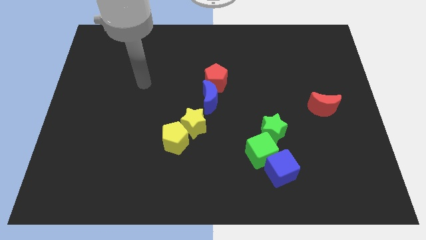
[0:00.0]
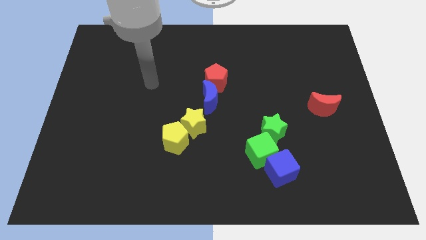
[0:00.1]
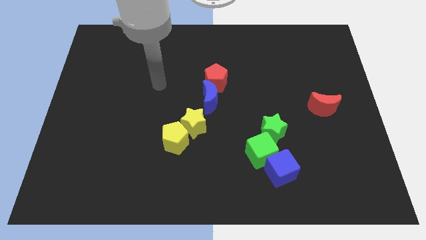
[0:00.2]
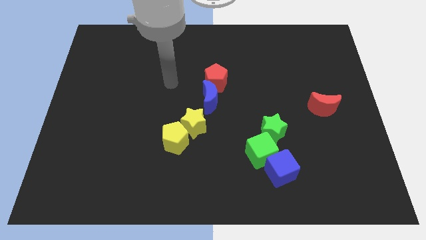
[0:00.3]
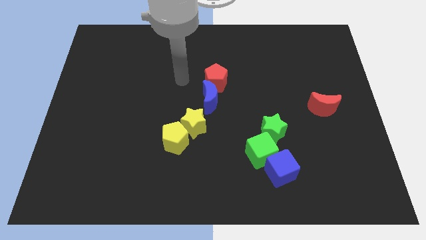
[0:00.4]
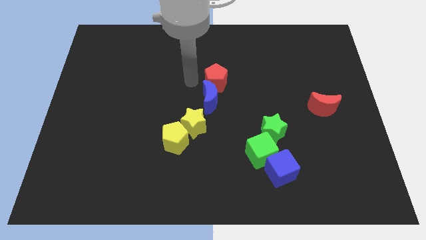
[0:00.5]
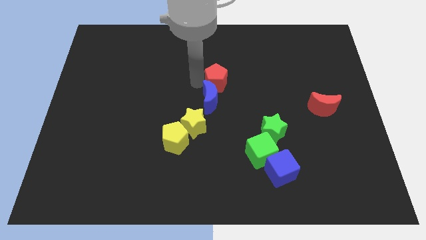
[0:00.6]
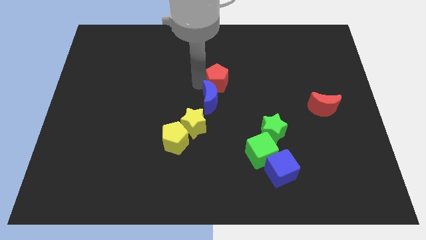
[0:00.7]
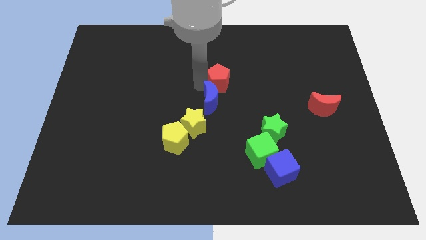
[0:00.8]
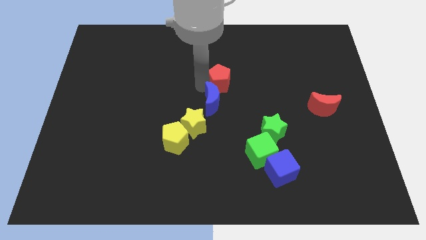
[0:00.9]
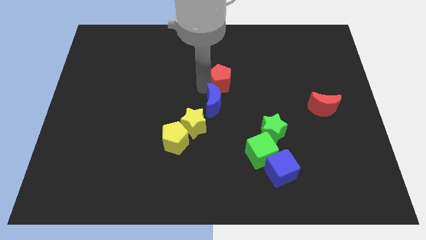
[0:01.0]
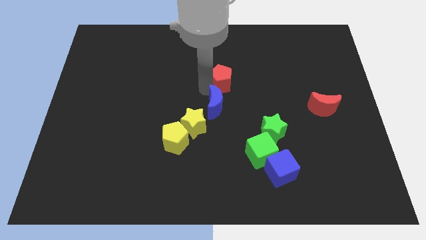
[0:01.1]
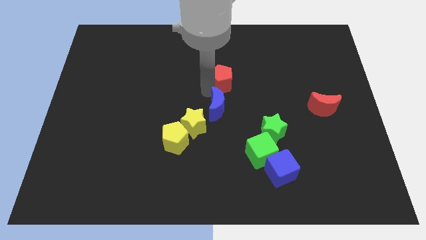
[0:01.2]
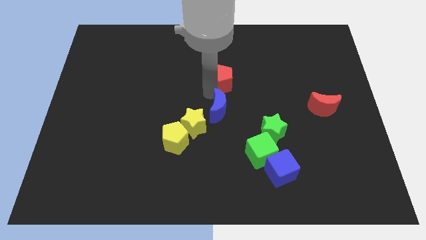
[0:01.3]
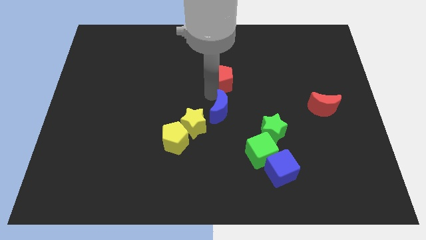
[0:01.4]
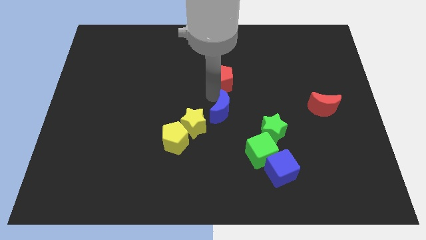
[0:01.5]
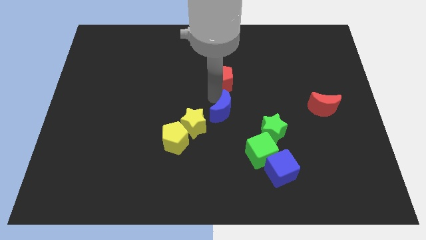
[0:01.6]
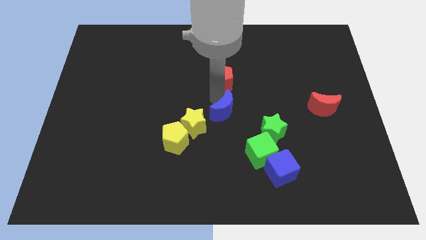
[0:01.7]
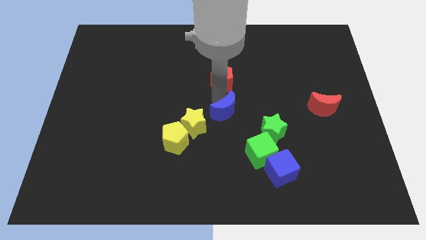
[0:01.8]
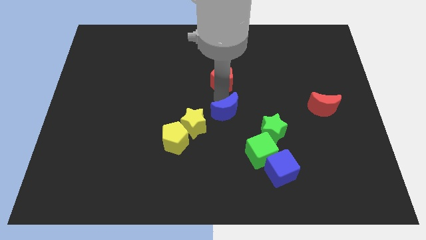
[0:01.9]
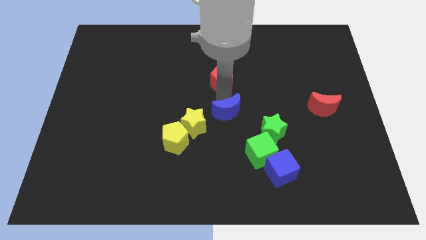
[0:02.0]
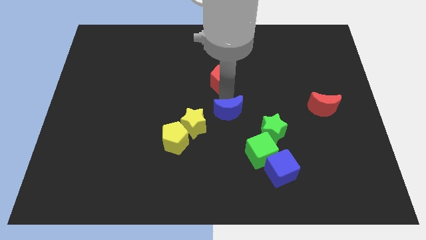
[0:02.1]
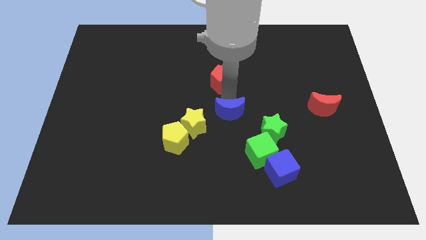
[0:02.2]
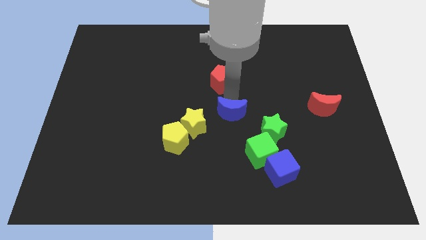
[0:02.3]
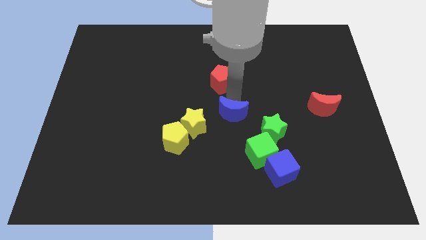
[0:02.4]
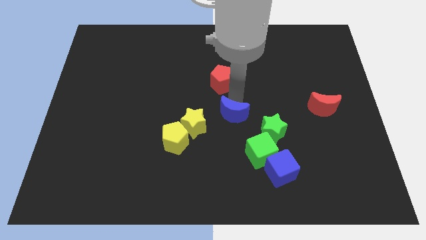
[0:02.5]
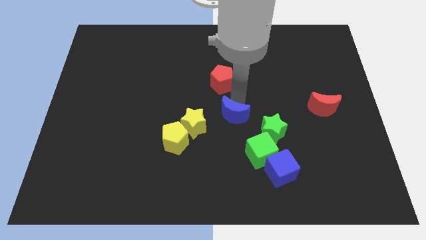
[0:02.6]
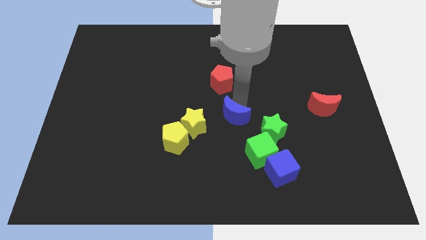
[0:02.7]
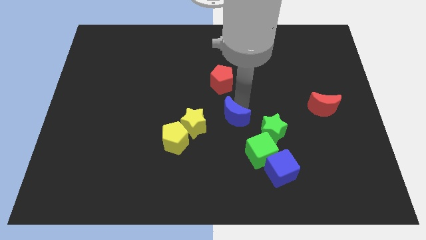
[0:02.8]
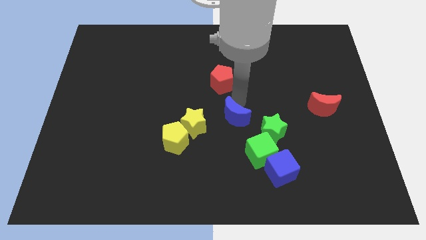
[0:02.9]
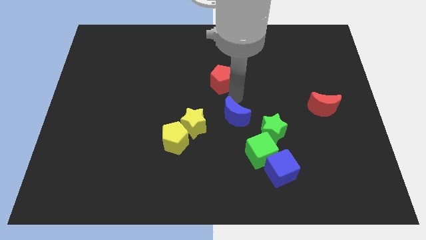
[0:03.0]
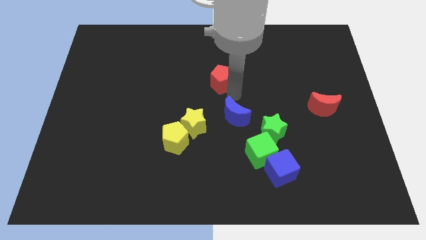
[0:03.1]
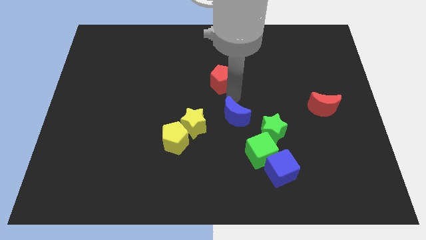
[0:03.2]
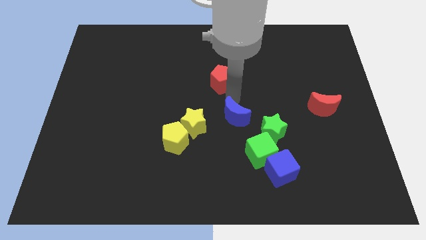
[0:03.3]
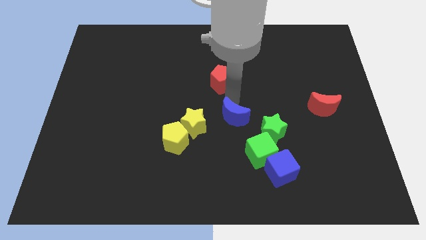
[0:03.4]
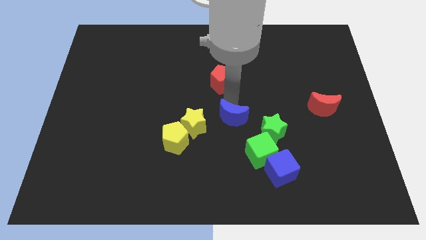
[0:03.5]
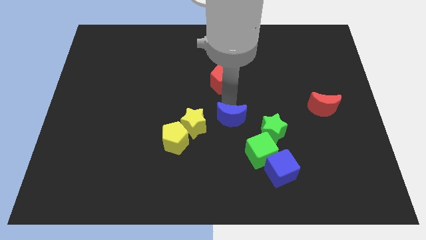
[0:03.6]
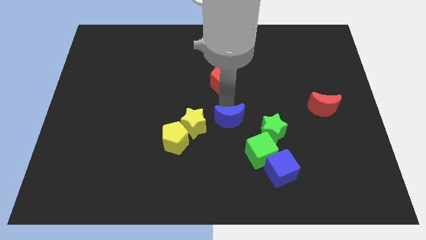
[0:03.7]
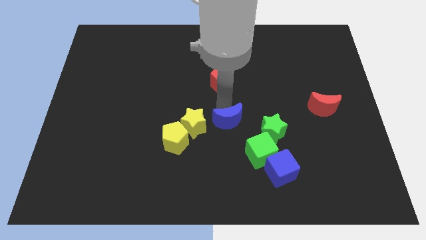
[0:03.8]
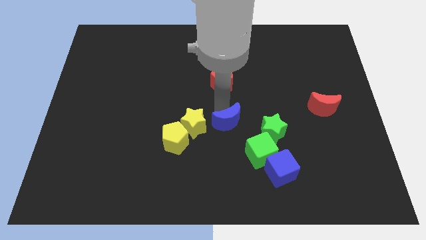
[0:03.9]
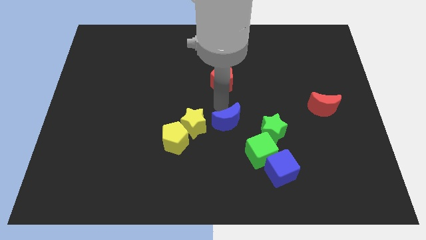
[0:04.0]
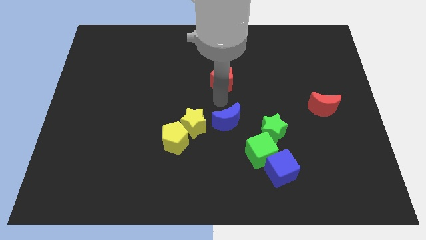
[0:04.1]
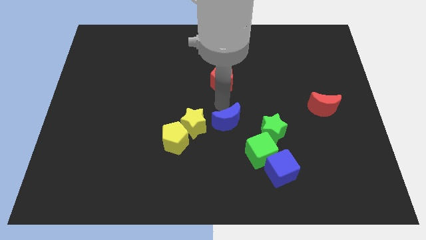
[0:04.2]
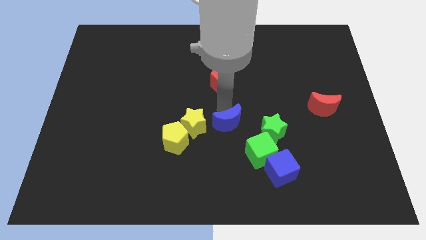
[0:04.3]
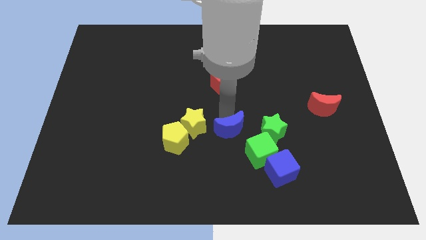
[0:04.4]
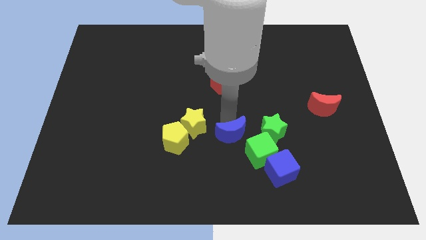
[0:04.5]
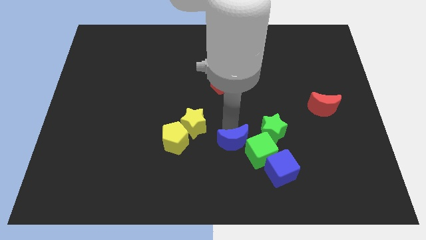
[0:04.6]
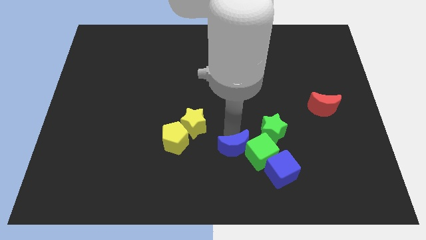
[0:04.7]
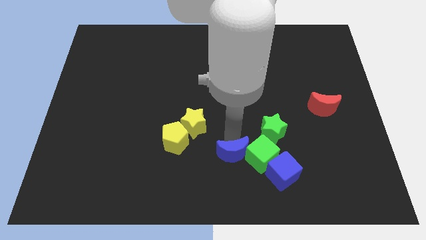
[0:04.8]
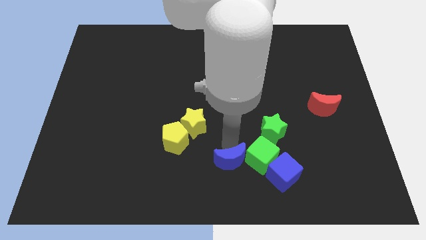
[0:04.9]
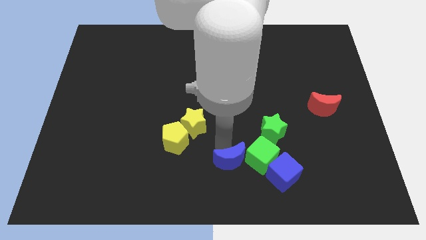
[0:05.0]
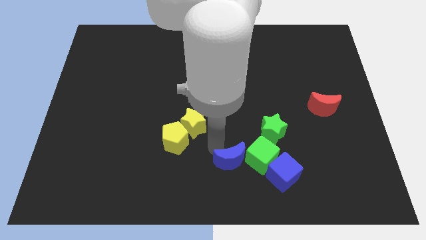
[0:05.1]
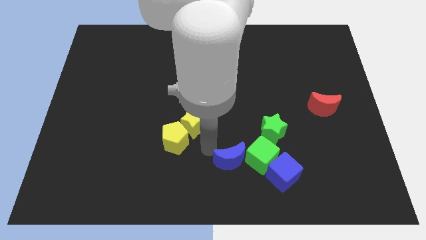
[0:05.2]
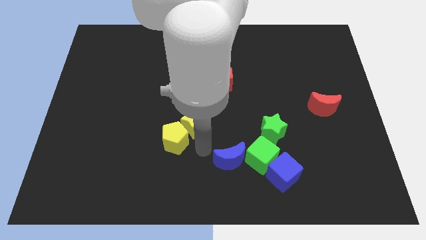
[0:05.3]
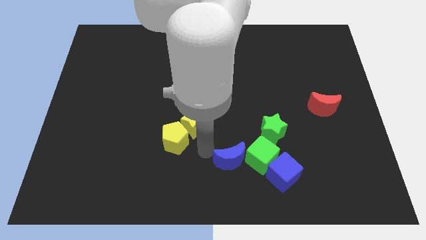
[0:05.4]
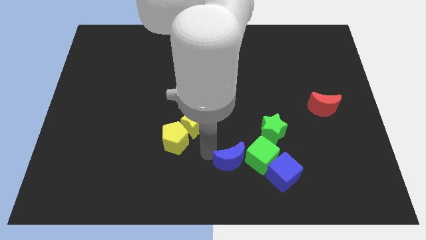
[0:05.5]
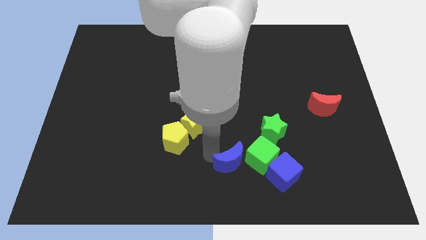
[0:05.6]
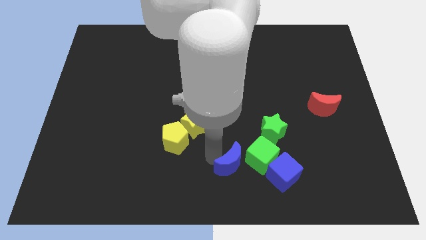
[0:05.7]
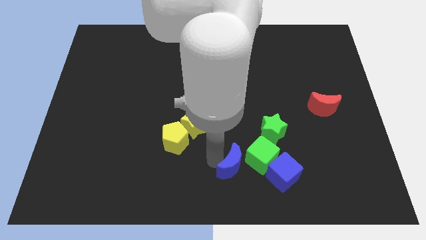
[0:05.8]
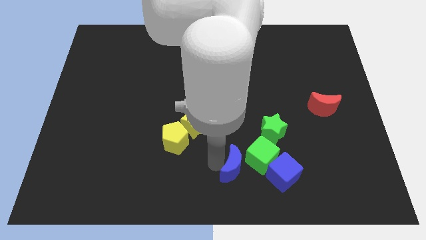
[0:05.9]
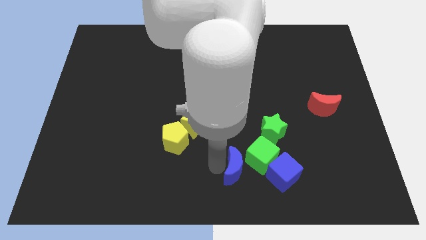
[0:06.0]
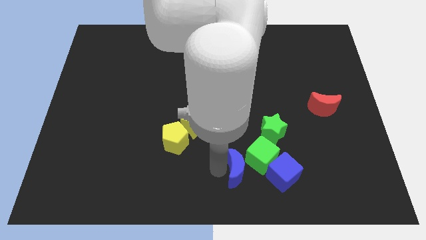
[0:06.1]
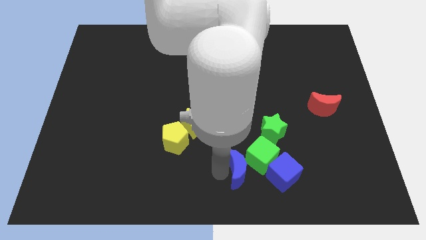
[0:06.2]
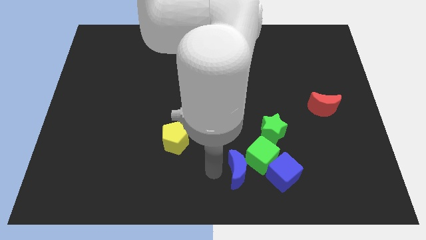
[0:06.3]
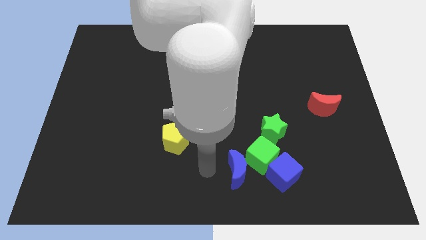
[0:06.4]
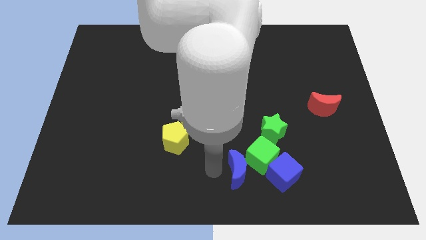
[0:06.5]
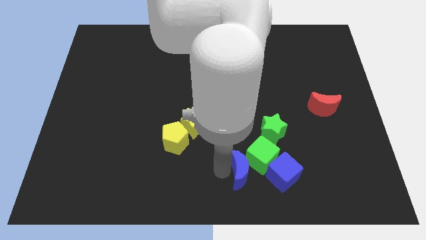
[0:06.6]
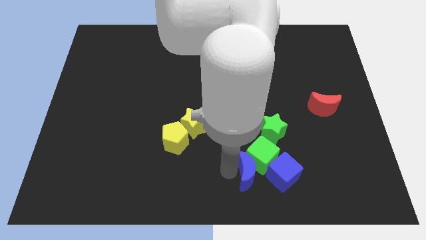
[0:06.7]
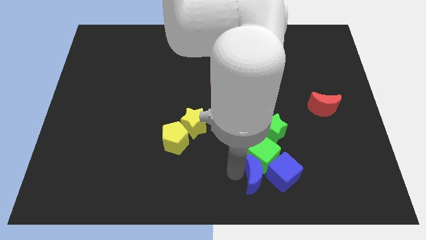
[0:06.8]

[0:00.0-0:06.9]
move the blue moon close to the blue cube

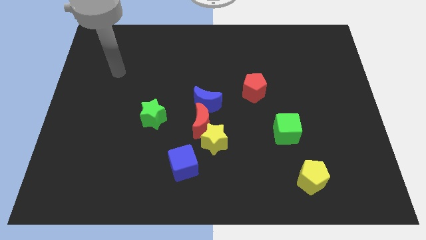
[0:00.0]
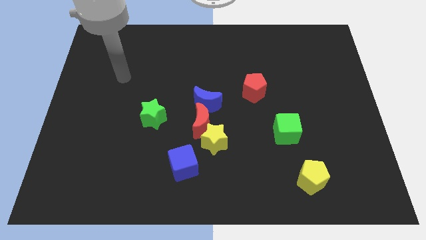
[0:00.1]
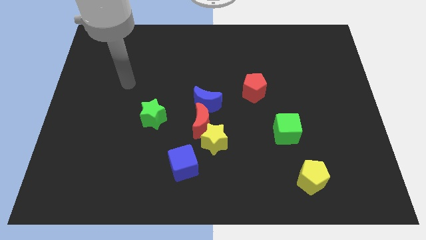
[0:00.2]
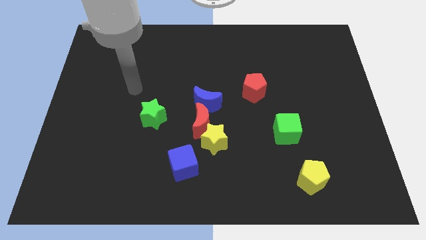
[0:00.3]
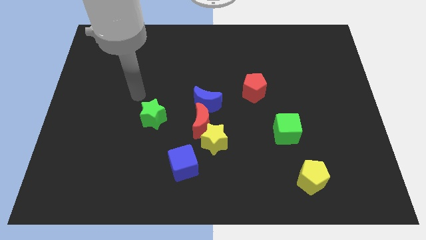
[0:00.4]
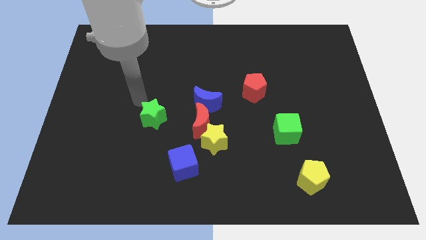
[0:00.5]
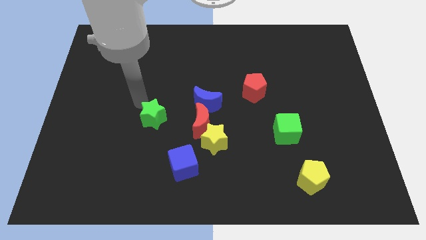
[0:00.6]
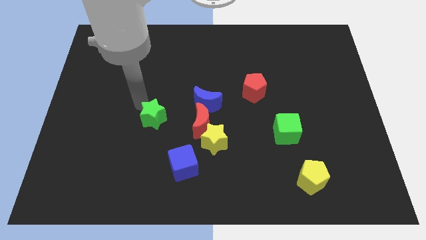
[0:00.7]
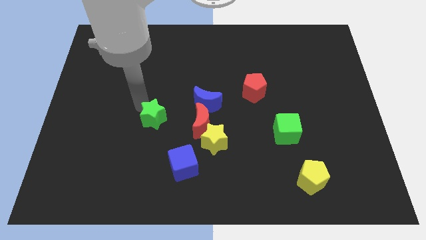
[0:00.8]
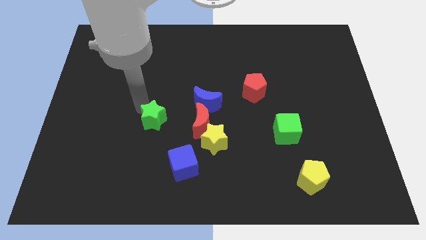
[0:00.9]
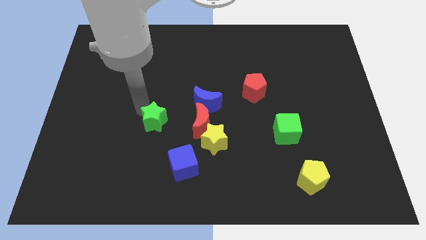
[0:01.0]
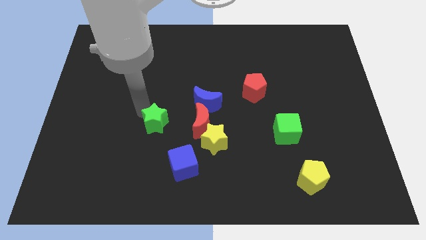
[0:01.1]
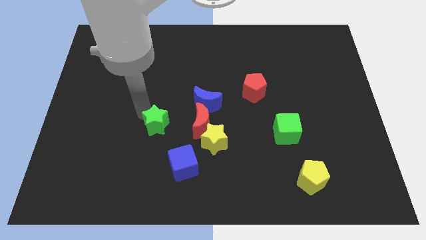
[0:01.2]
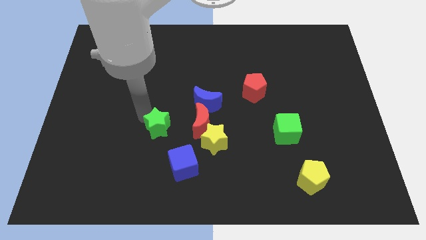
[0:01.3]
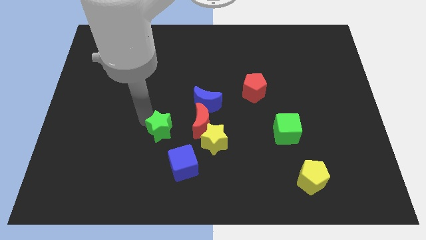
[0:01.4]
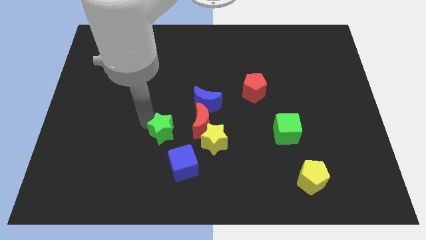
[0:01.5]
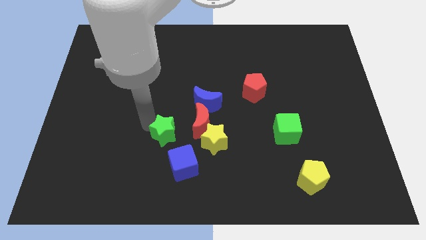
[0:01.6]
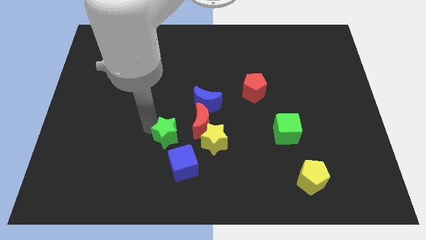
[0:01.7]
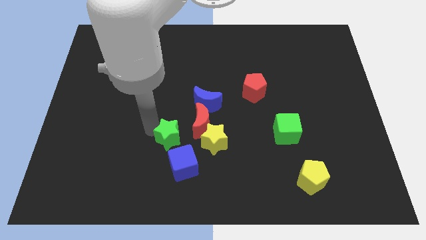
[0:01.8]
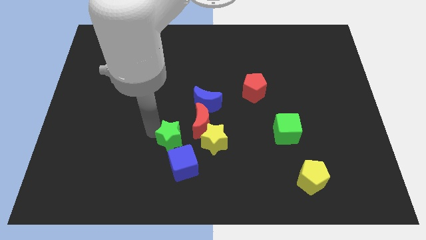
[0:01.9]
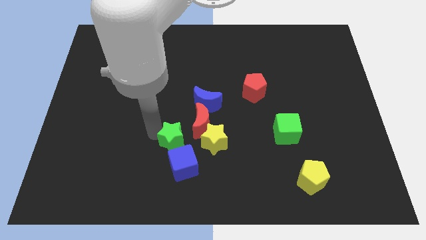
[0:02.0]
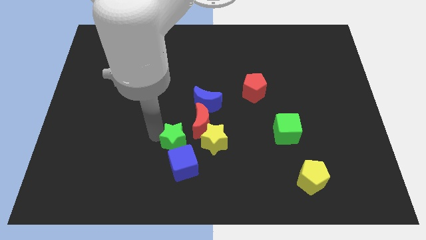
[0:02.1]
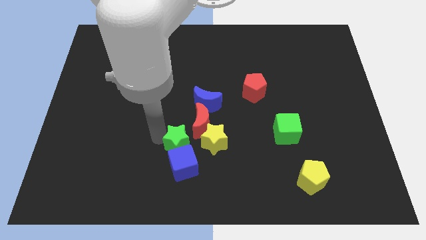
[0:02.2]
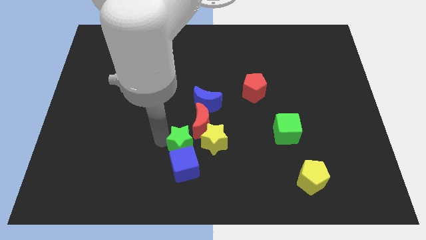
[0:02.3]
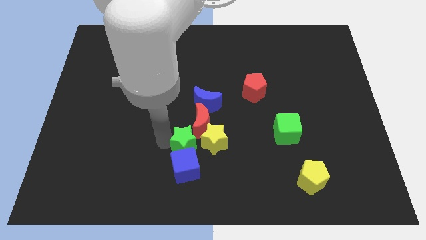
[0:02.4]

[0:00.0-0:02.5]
slide the green star towards the yellow star
